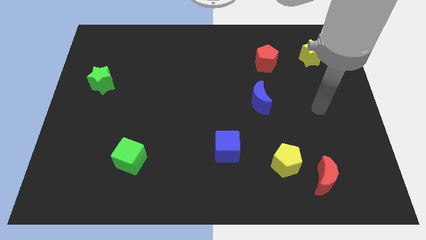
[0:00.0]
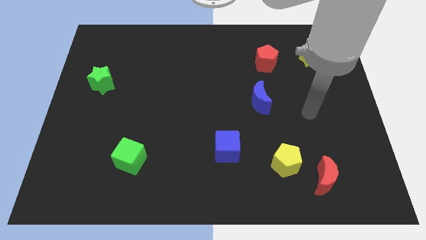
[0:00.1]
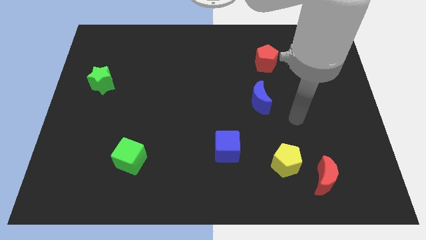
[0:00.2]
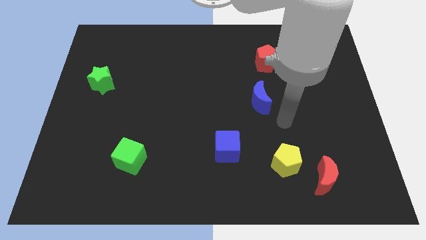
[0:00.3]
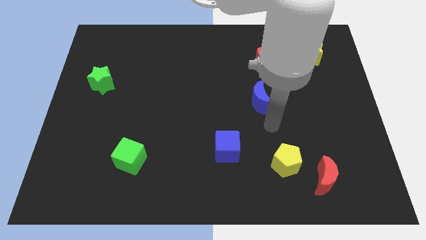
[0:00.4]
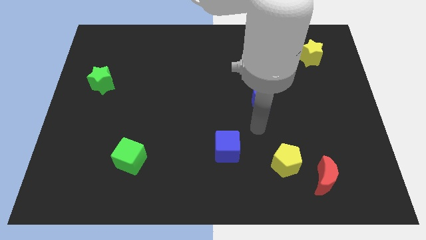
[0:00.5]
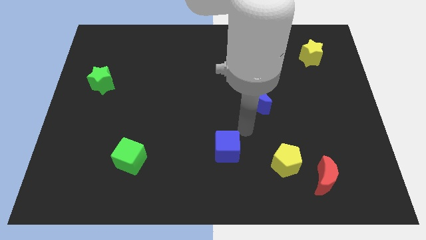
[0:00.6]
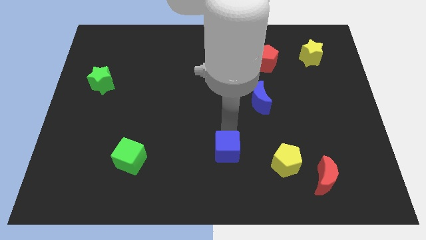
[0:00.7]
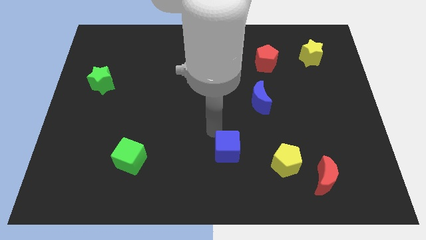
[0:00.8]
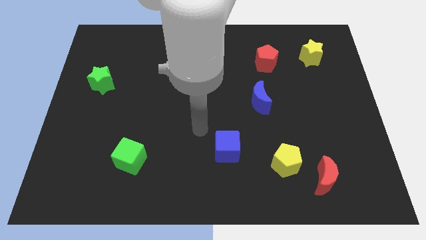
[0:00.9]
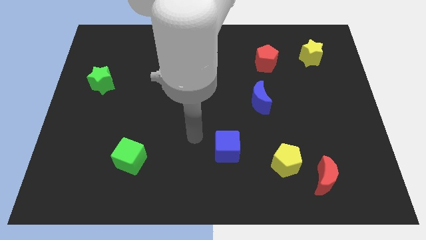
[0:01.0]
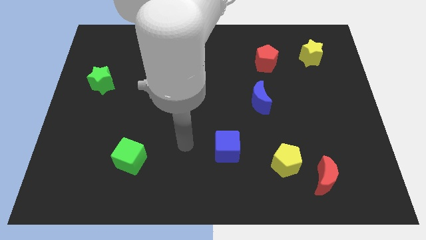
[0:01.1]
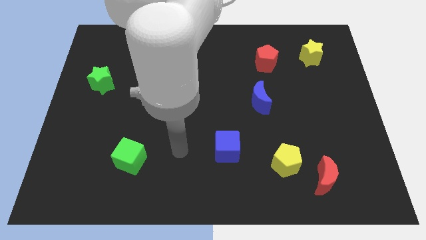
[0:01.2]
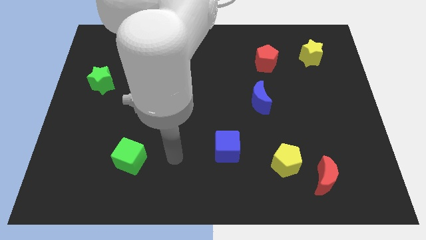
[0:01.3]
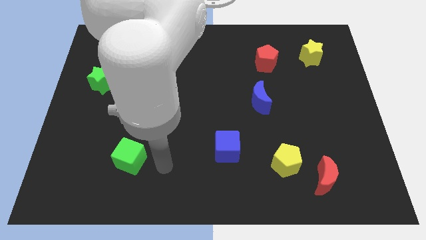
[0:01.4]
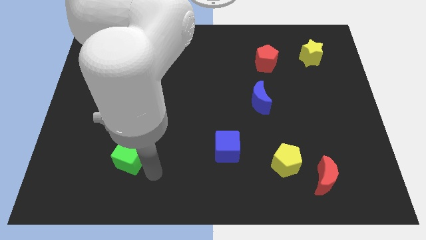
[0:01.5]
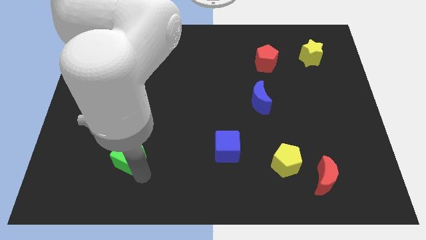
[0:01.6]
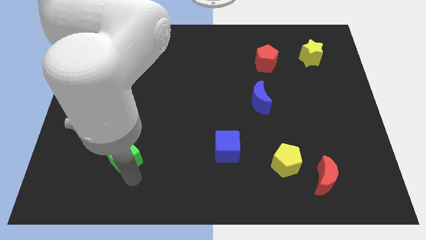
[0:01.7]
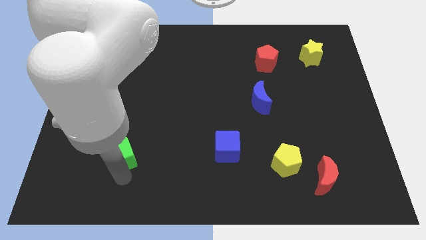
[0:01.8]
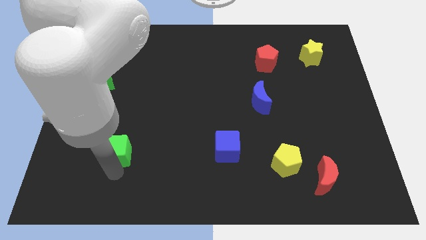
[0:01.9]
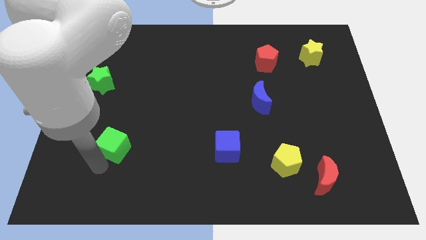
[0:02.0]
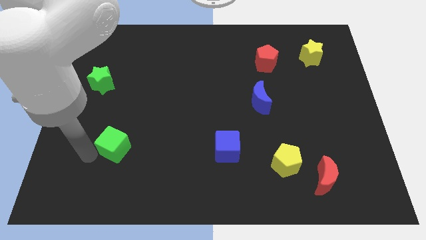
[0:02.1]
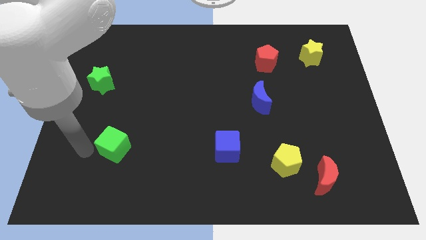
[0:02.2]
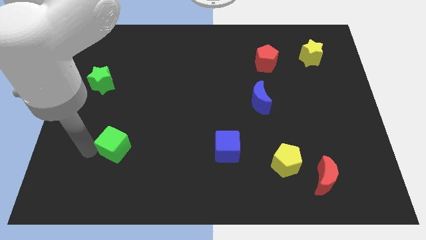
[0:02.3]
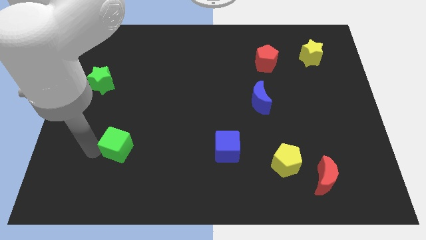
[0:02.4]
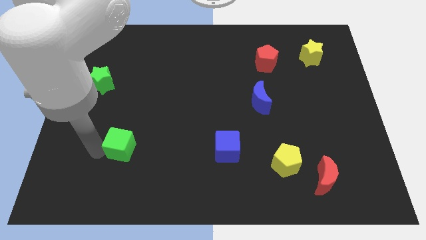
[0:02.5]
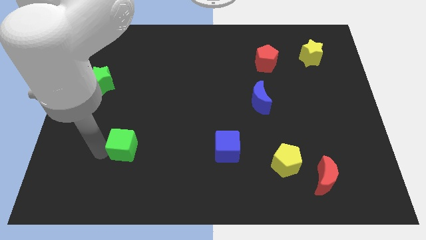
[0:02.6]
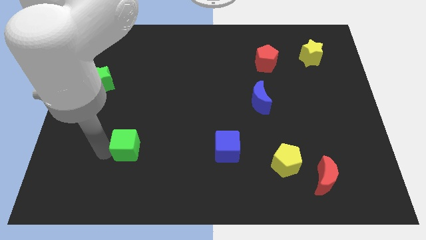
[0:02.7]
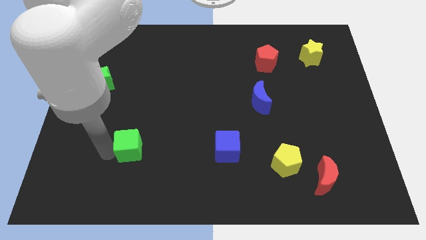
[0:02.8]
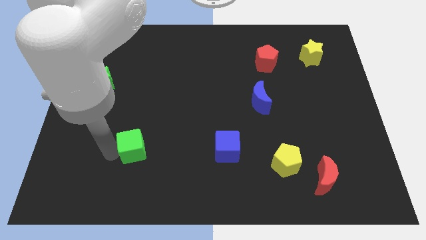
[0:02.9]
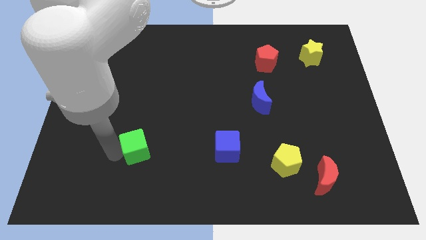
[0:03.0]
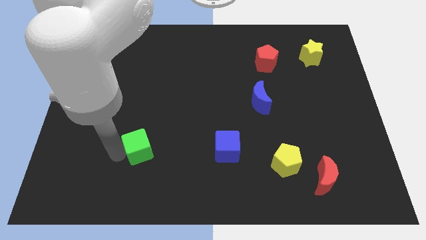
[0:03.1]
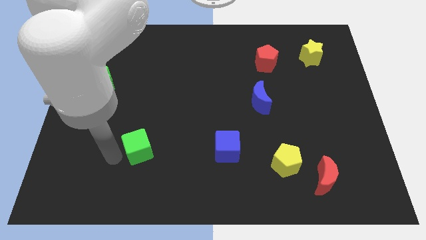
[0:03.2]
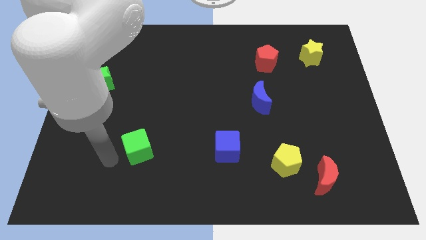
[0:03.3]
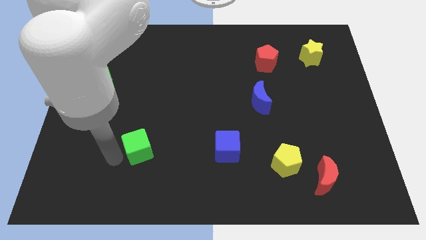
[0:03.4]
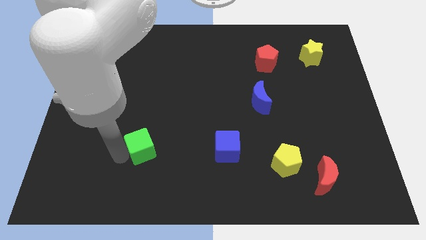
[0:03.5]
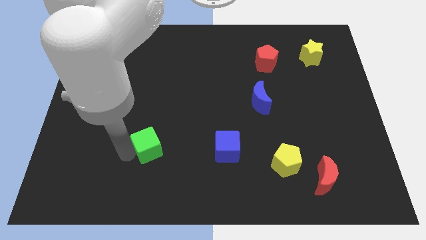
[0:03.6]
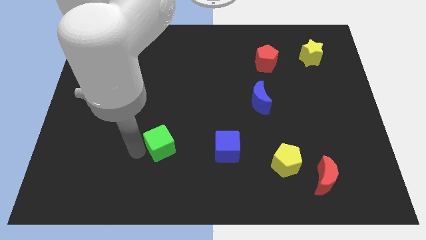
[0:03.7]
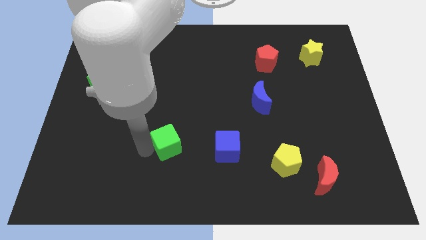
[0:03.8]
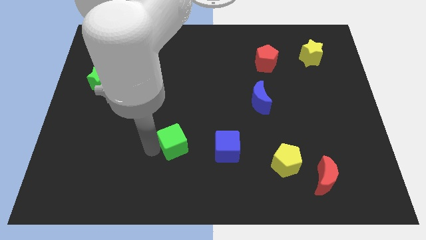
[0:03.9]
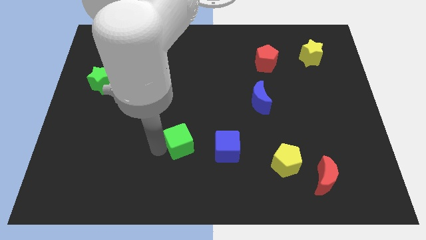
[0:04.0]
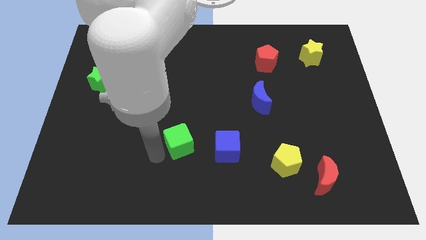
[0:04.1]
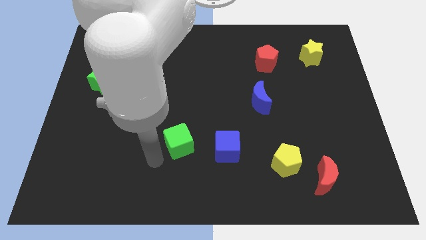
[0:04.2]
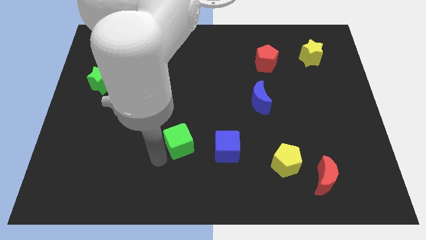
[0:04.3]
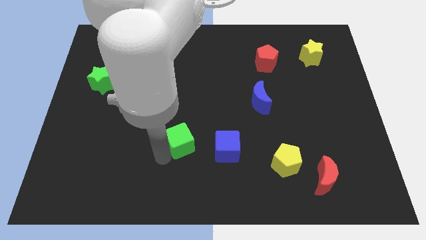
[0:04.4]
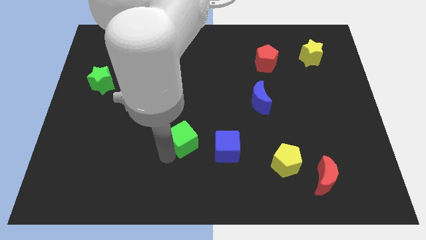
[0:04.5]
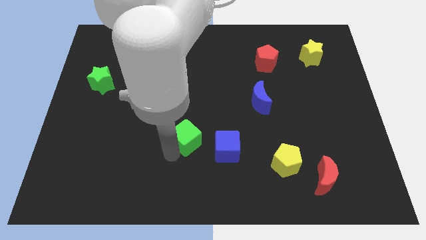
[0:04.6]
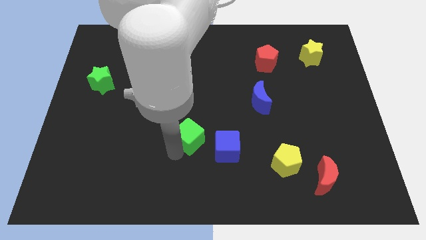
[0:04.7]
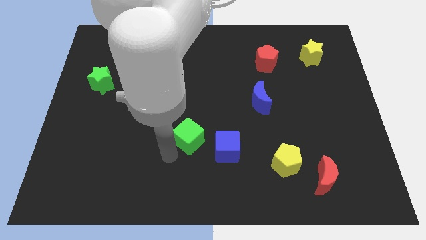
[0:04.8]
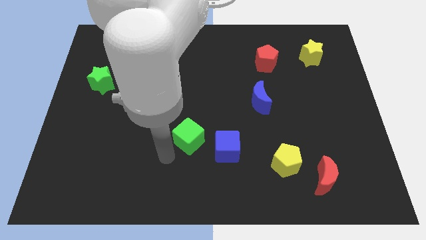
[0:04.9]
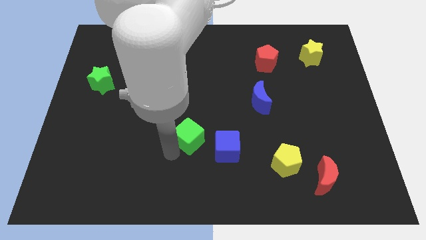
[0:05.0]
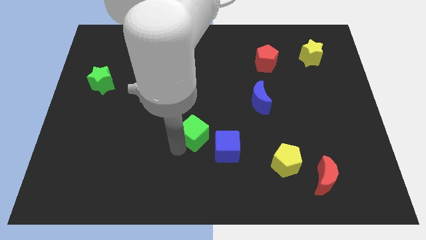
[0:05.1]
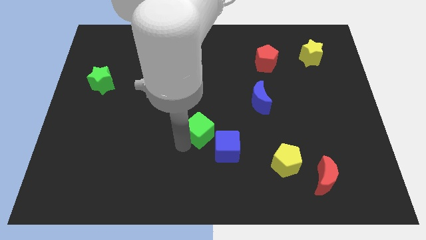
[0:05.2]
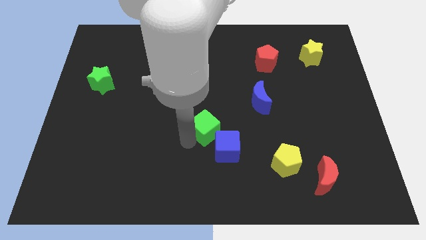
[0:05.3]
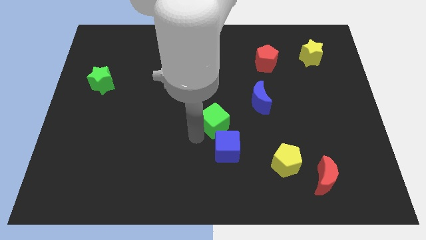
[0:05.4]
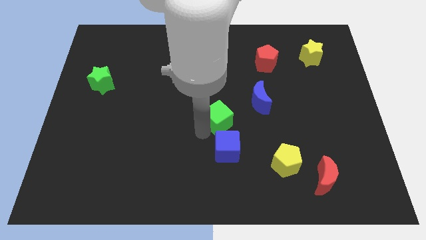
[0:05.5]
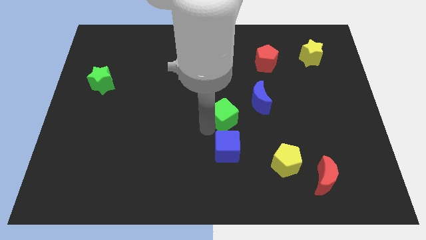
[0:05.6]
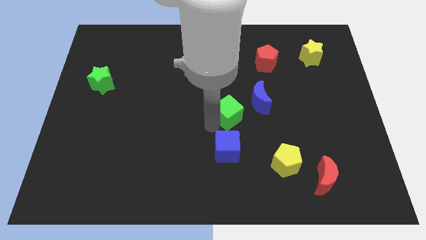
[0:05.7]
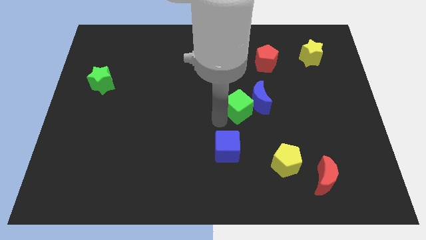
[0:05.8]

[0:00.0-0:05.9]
slide the green cube close to the blue moon

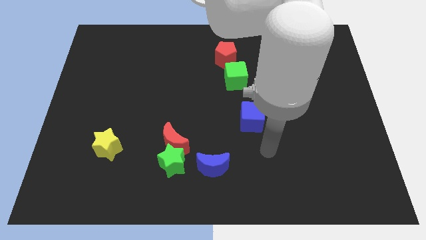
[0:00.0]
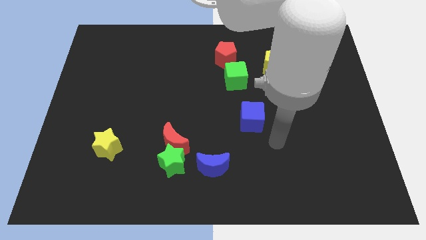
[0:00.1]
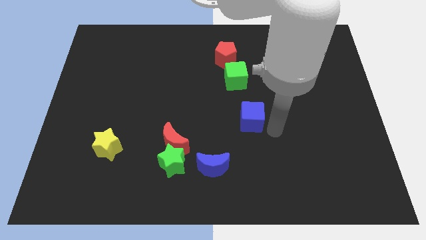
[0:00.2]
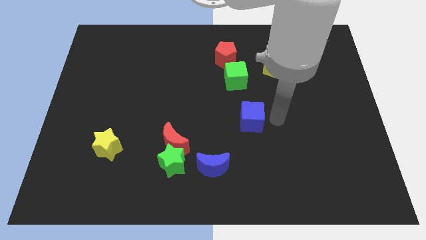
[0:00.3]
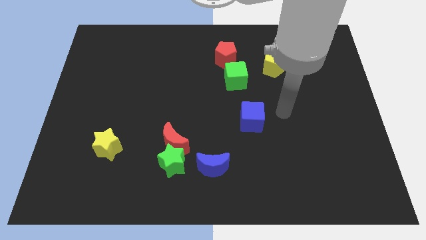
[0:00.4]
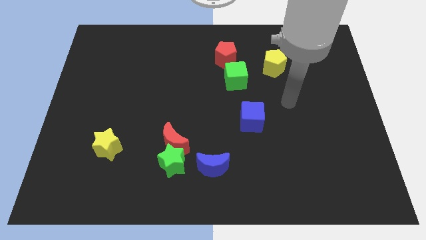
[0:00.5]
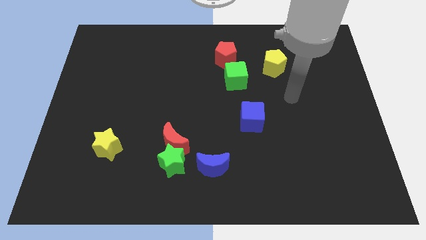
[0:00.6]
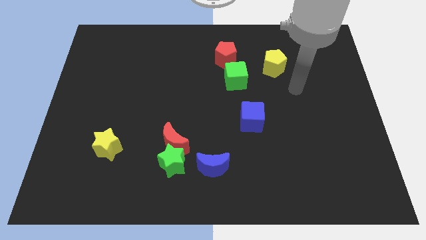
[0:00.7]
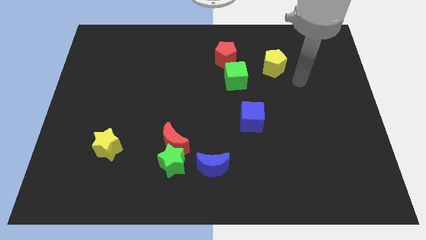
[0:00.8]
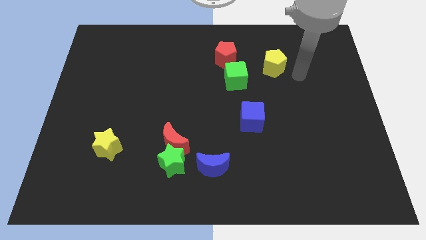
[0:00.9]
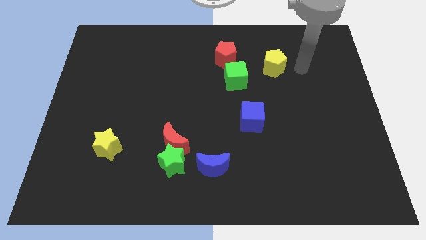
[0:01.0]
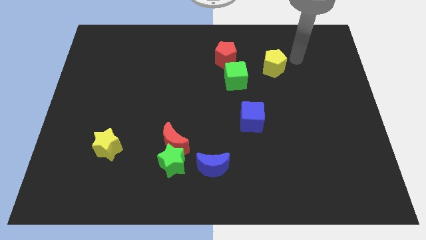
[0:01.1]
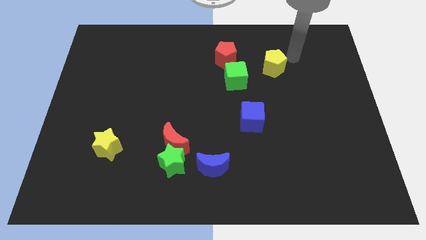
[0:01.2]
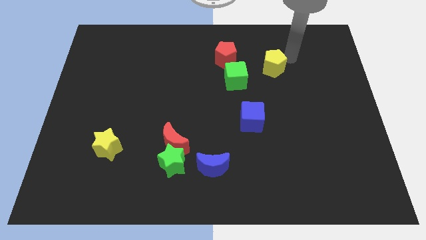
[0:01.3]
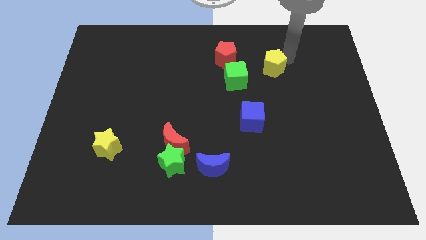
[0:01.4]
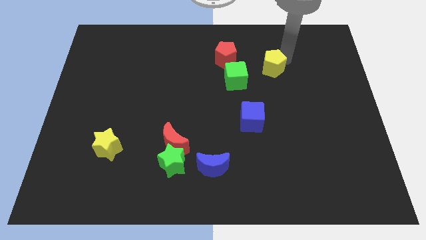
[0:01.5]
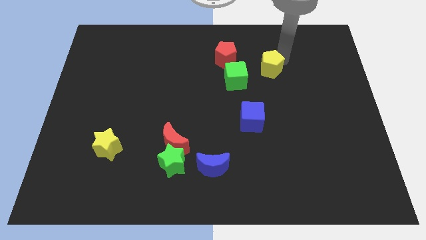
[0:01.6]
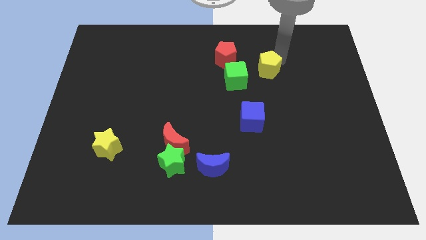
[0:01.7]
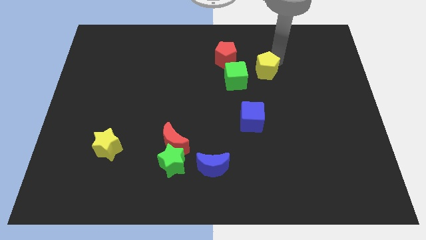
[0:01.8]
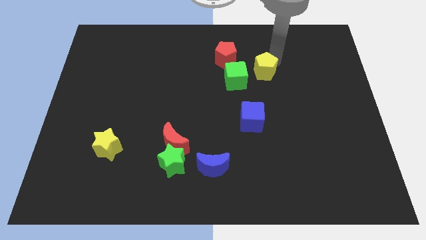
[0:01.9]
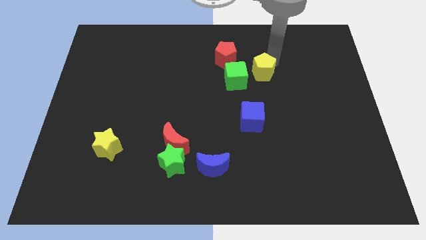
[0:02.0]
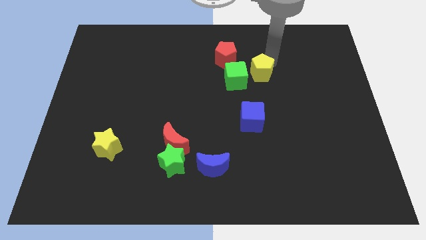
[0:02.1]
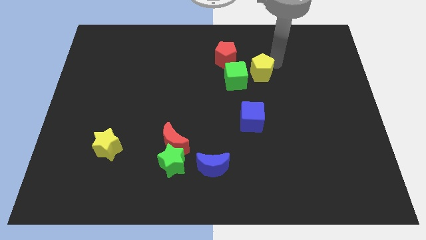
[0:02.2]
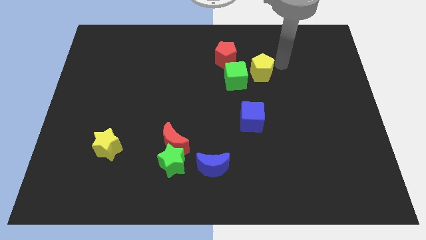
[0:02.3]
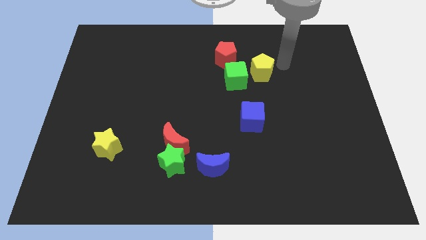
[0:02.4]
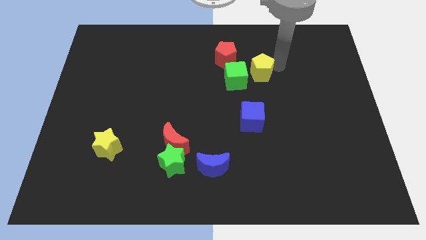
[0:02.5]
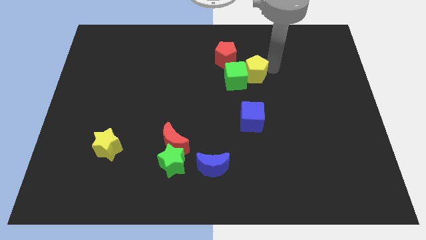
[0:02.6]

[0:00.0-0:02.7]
push the yellow pentagon next to the green cube
